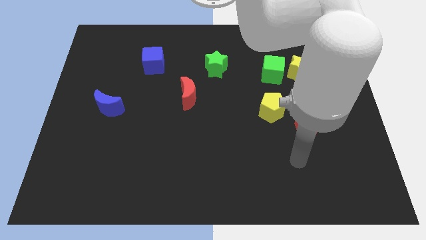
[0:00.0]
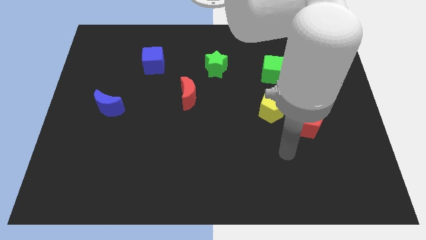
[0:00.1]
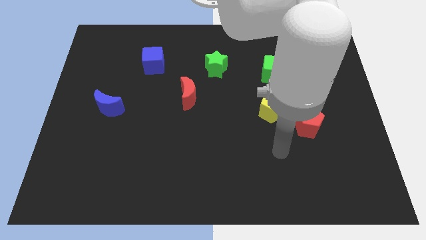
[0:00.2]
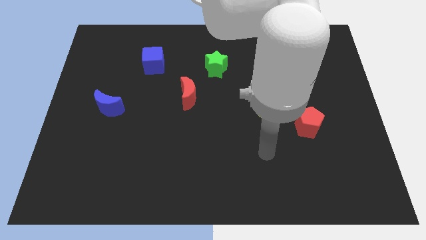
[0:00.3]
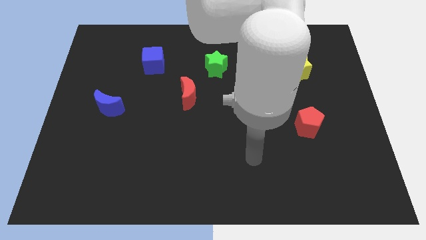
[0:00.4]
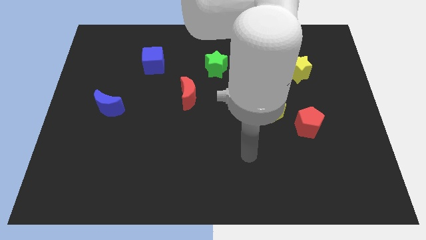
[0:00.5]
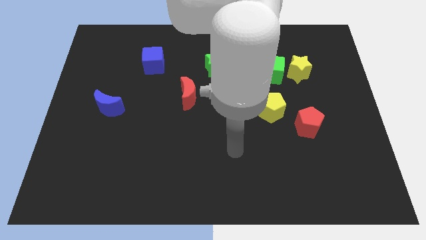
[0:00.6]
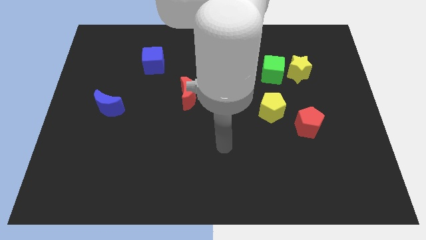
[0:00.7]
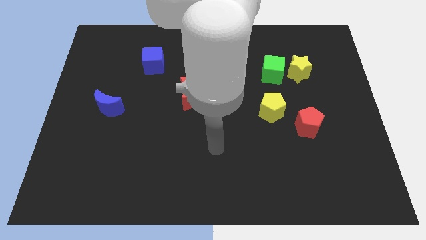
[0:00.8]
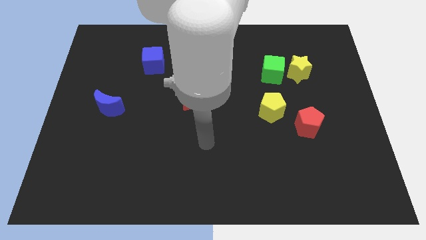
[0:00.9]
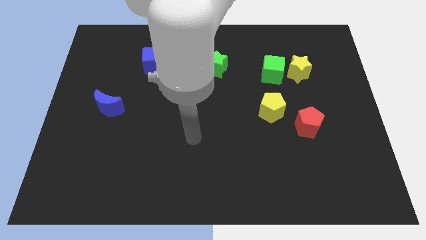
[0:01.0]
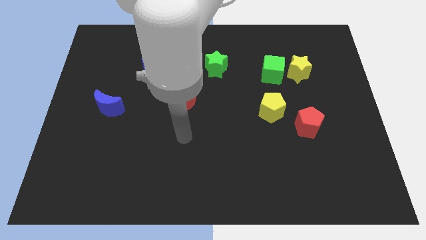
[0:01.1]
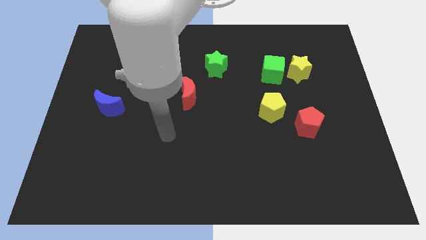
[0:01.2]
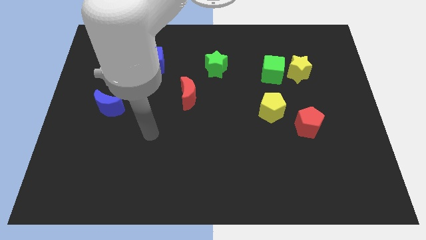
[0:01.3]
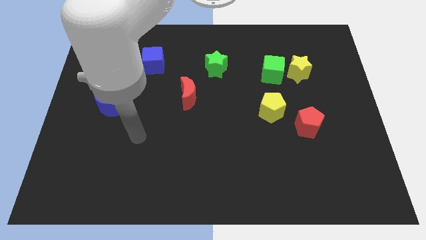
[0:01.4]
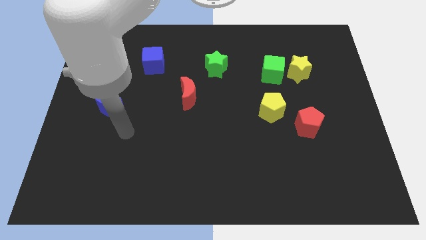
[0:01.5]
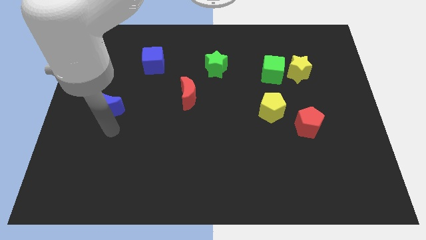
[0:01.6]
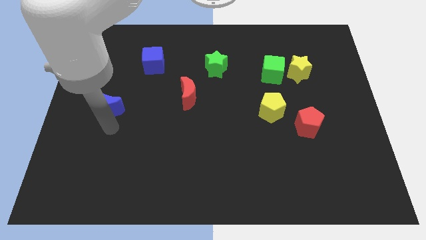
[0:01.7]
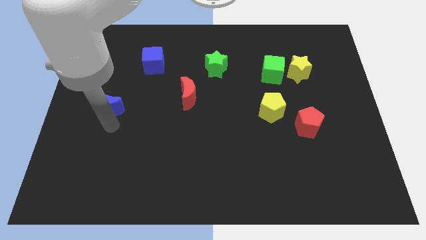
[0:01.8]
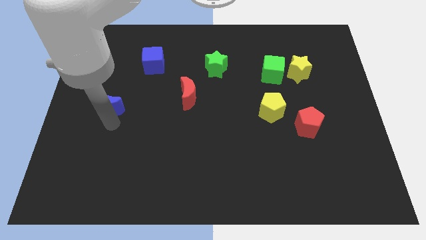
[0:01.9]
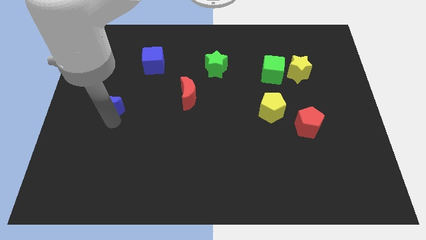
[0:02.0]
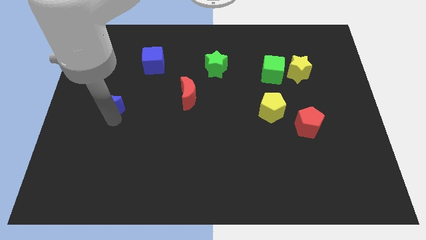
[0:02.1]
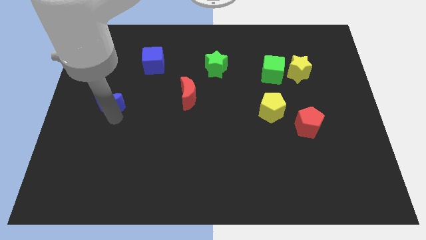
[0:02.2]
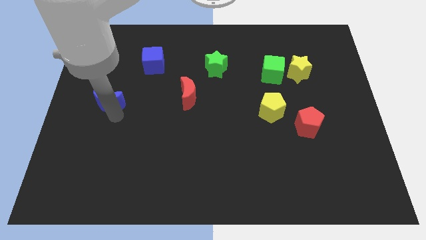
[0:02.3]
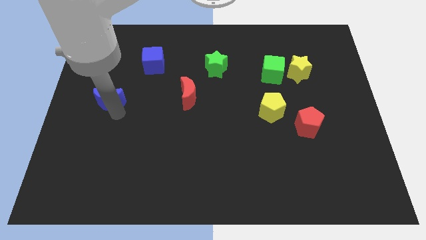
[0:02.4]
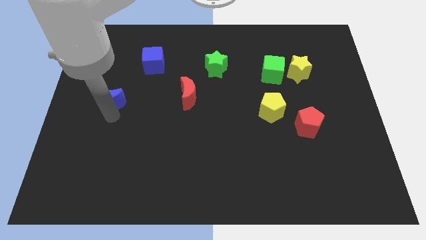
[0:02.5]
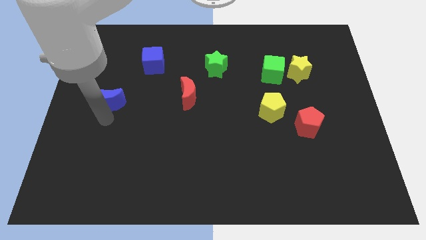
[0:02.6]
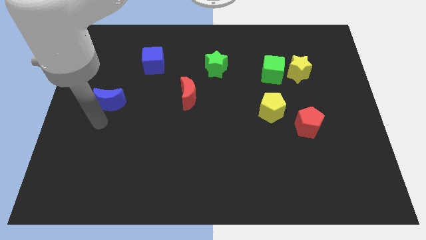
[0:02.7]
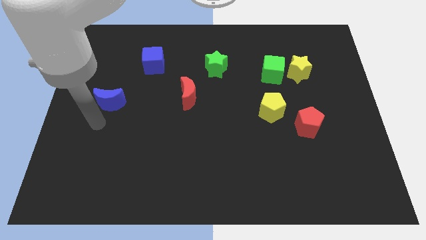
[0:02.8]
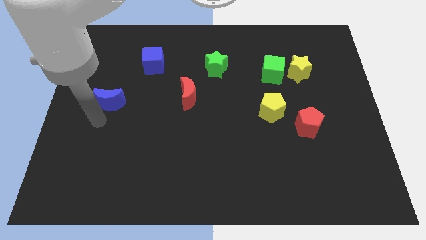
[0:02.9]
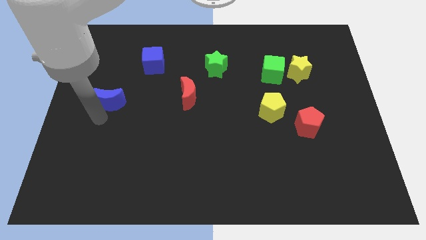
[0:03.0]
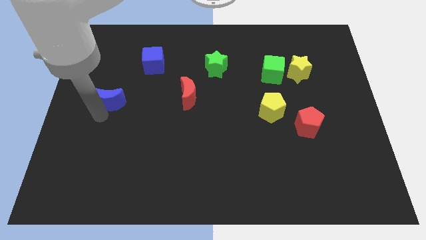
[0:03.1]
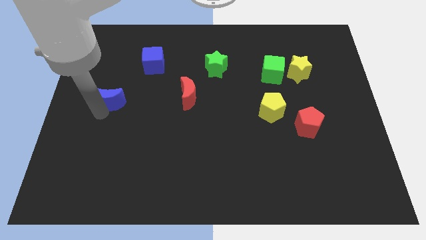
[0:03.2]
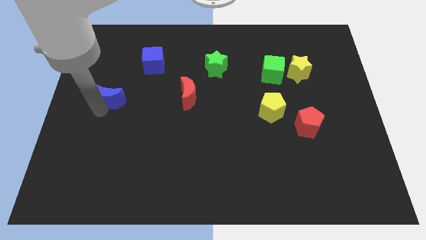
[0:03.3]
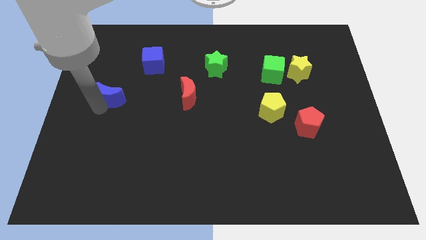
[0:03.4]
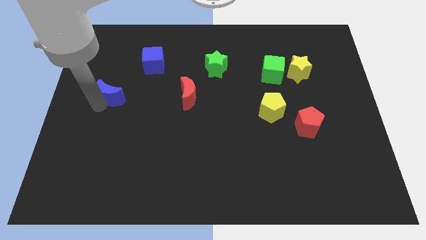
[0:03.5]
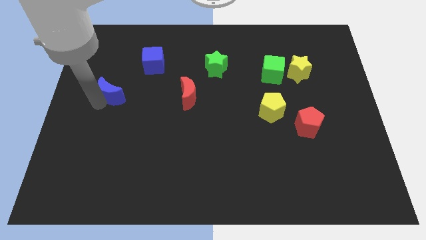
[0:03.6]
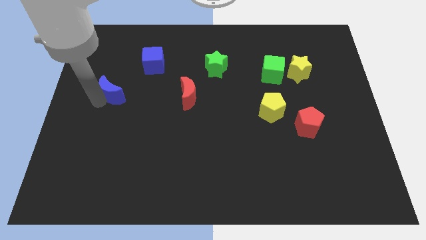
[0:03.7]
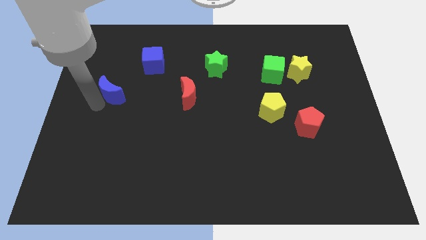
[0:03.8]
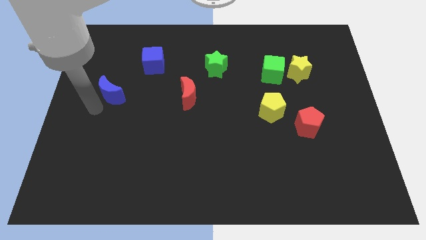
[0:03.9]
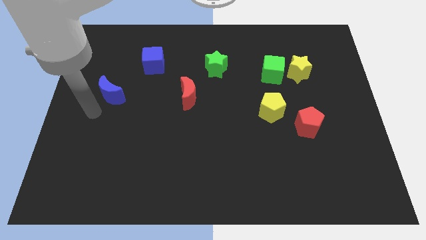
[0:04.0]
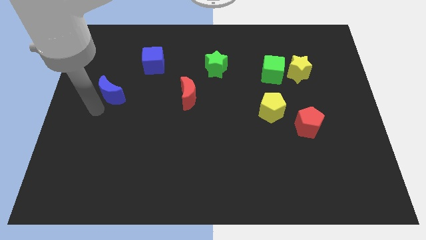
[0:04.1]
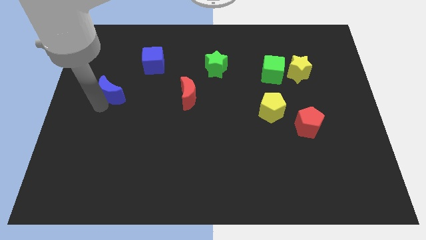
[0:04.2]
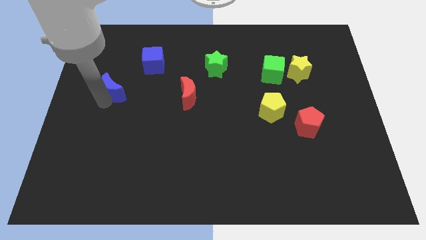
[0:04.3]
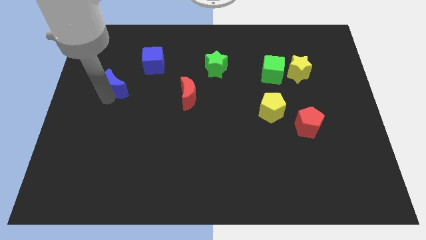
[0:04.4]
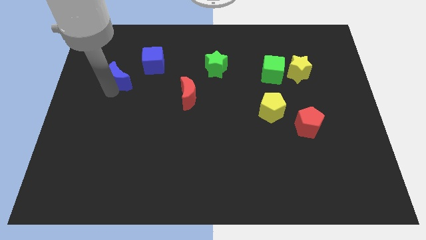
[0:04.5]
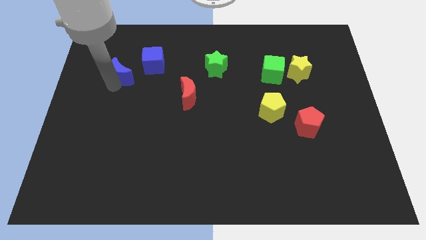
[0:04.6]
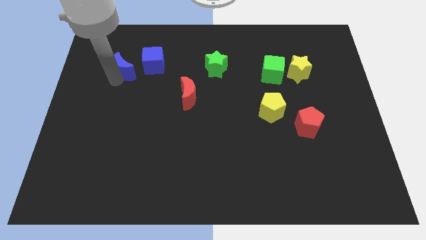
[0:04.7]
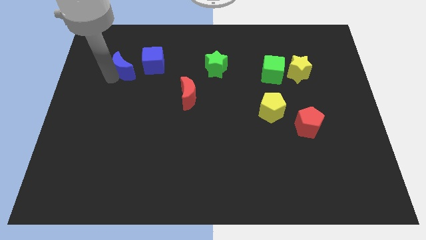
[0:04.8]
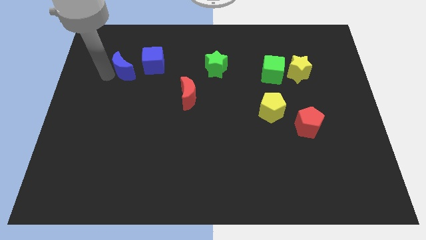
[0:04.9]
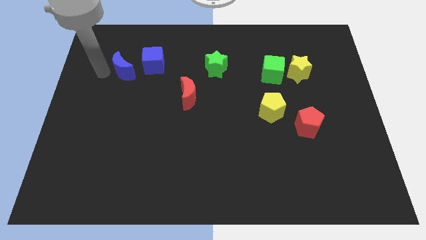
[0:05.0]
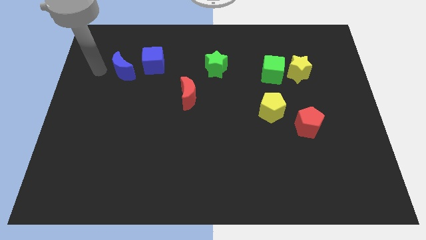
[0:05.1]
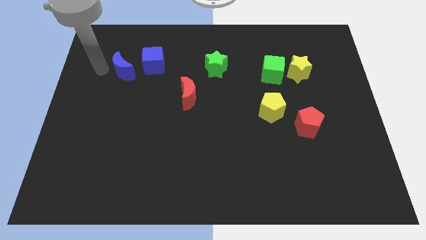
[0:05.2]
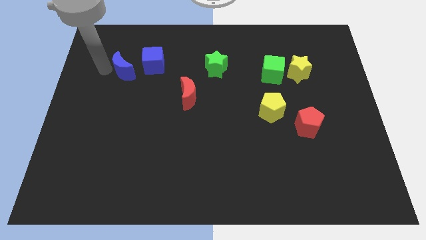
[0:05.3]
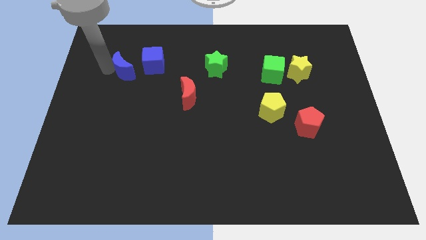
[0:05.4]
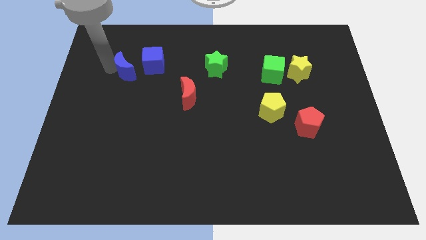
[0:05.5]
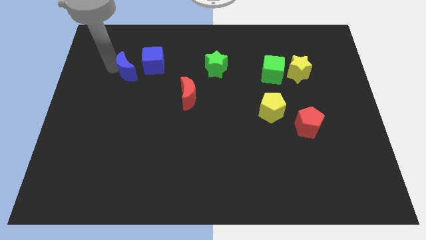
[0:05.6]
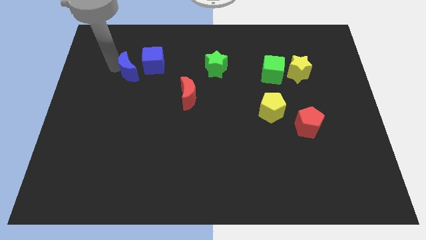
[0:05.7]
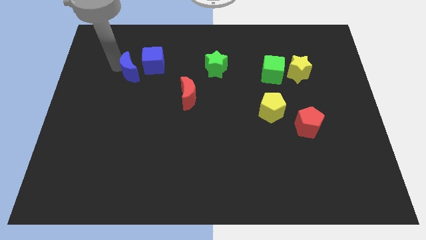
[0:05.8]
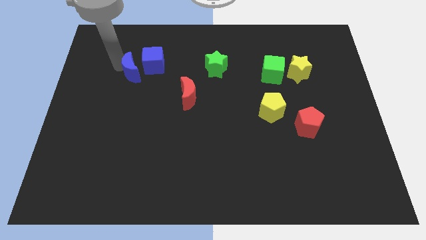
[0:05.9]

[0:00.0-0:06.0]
put the blue moon to the blue cube

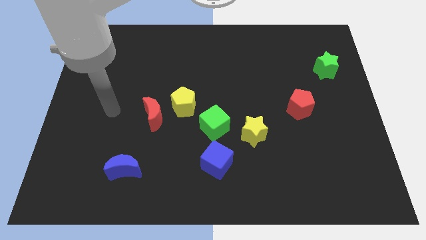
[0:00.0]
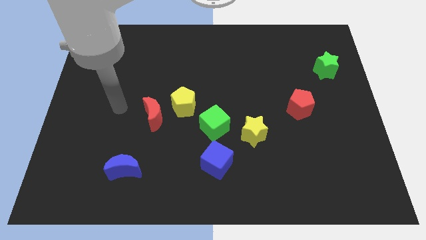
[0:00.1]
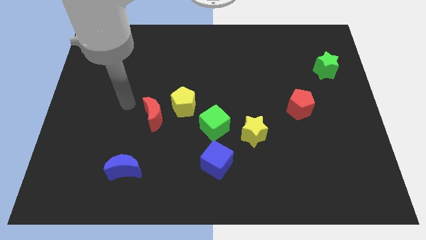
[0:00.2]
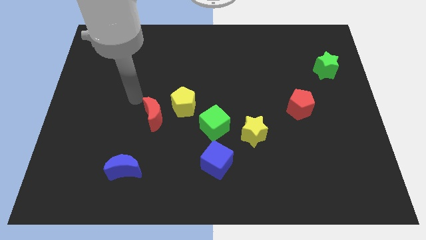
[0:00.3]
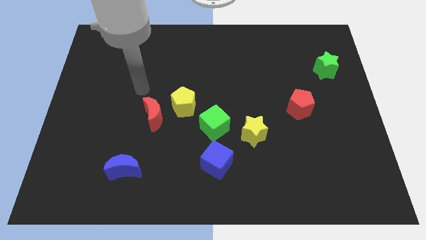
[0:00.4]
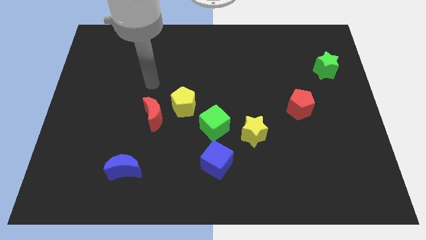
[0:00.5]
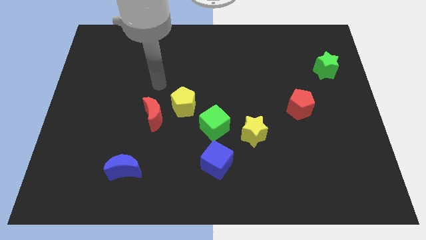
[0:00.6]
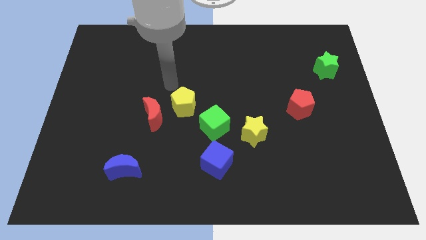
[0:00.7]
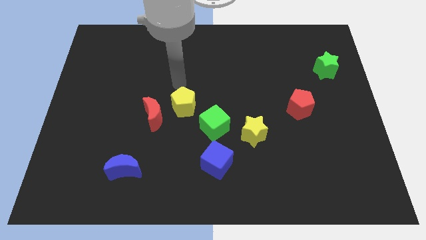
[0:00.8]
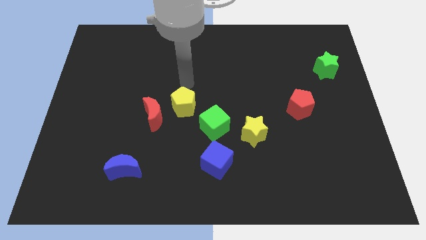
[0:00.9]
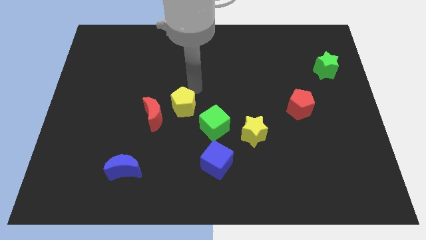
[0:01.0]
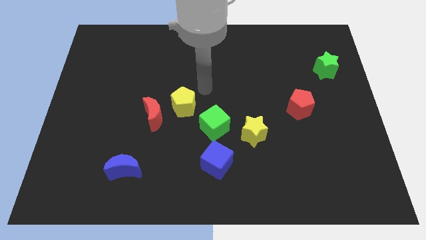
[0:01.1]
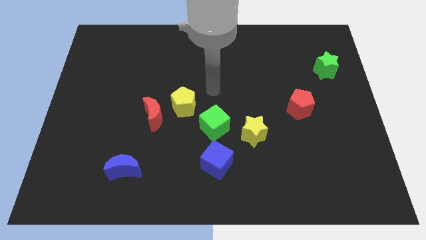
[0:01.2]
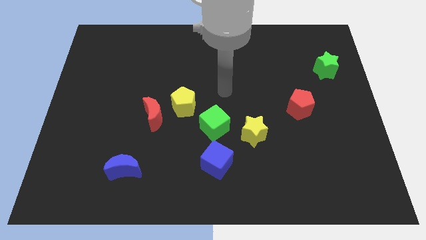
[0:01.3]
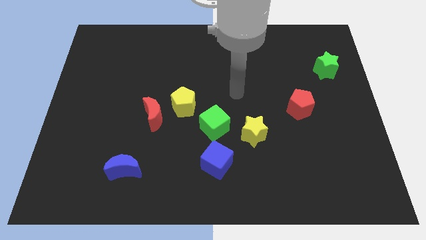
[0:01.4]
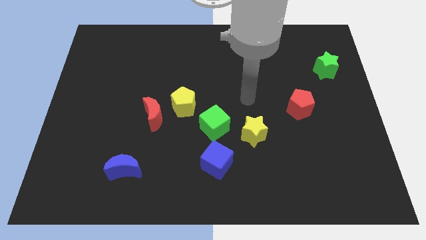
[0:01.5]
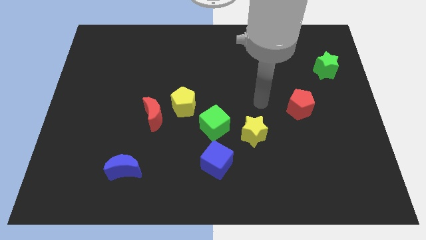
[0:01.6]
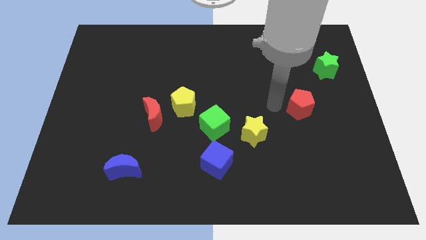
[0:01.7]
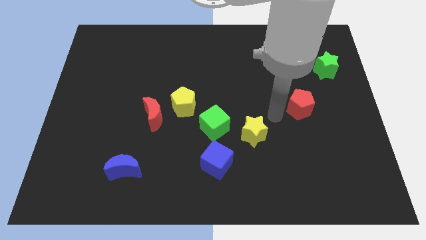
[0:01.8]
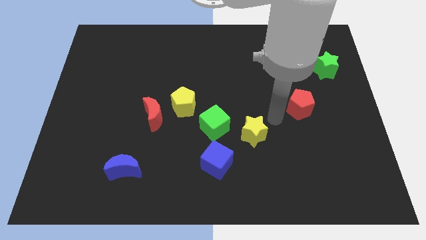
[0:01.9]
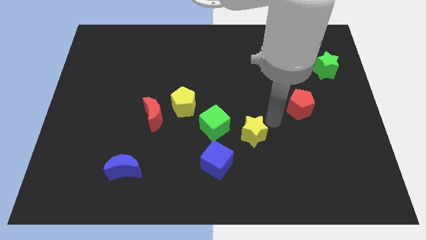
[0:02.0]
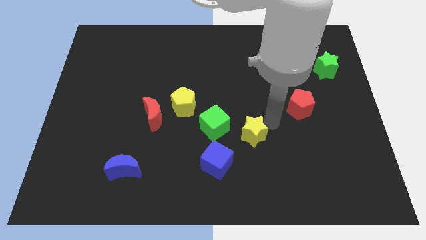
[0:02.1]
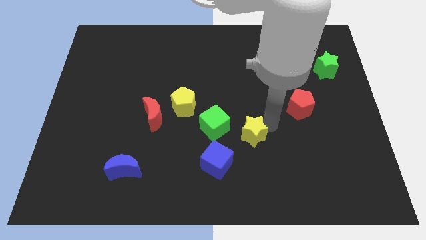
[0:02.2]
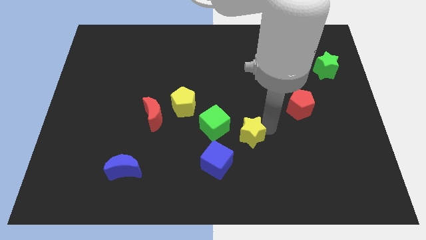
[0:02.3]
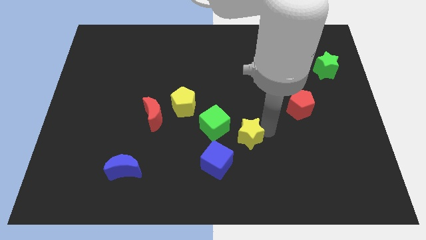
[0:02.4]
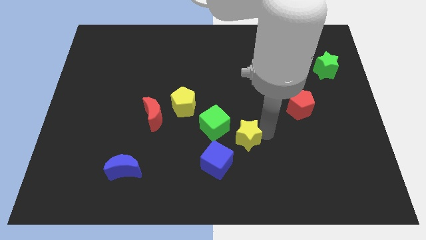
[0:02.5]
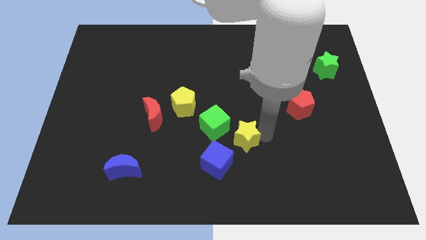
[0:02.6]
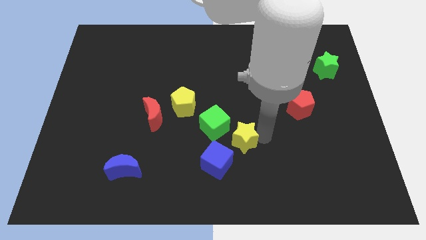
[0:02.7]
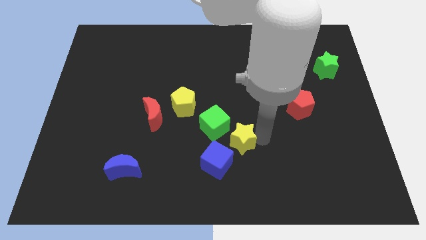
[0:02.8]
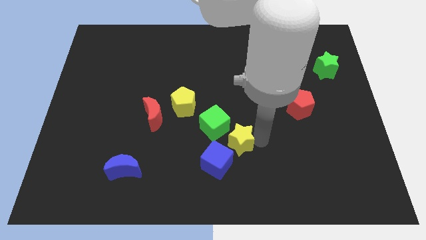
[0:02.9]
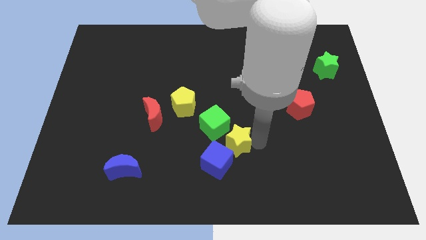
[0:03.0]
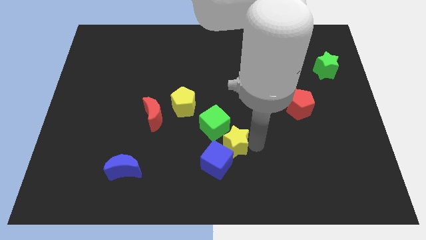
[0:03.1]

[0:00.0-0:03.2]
move the yellow star to the blue cube
